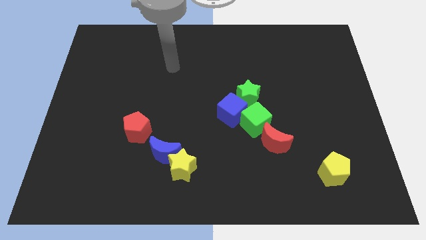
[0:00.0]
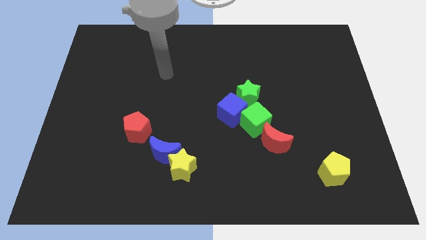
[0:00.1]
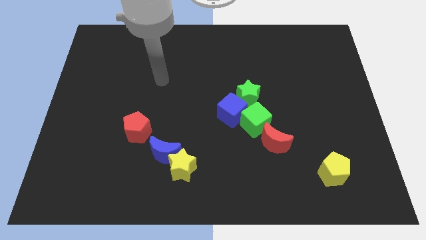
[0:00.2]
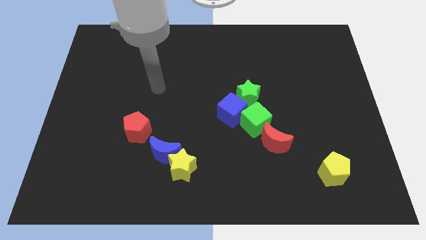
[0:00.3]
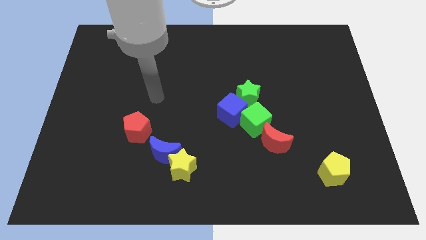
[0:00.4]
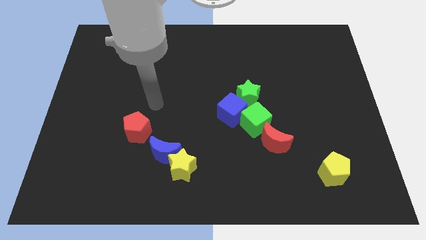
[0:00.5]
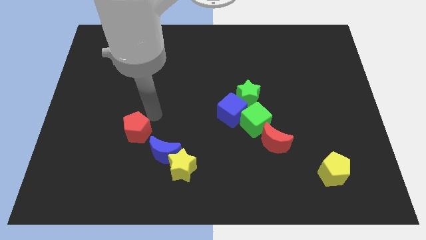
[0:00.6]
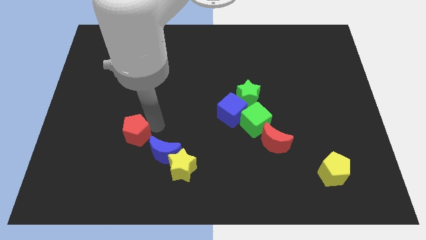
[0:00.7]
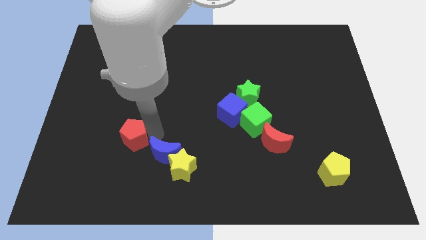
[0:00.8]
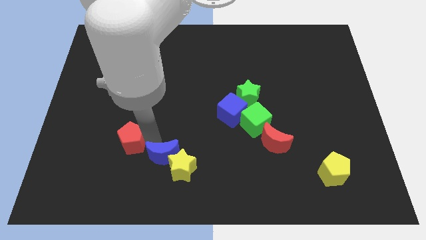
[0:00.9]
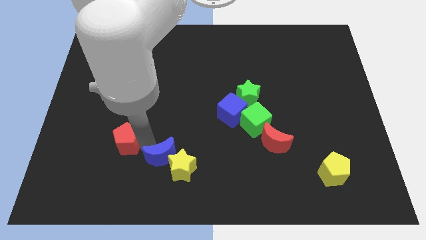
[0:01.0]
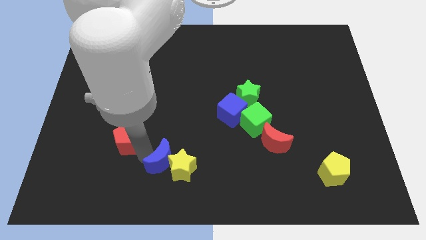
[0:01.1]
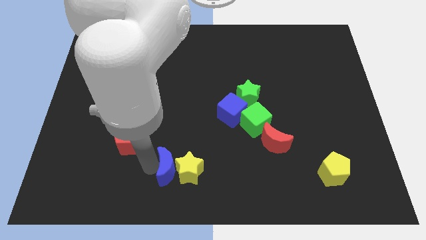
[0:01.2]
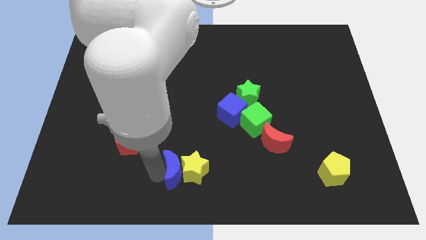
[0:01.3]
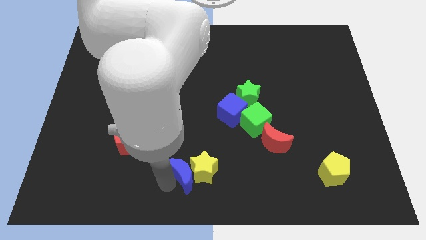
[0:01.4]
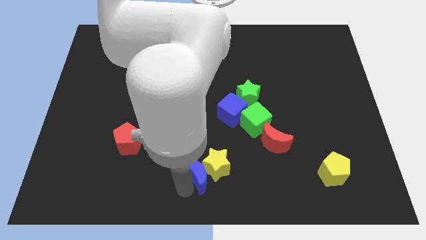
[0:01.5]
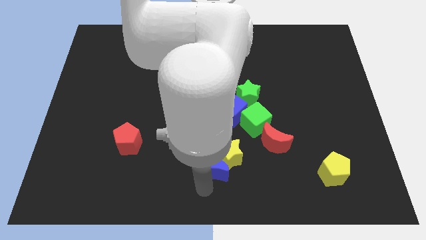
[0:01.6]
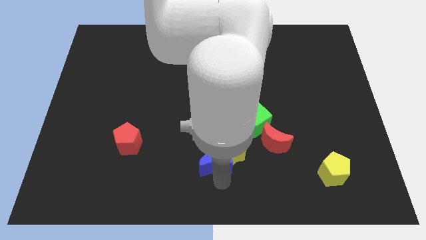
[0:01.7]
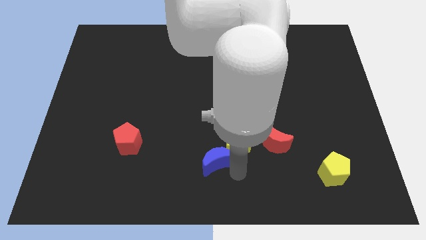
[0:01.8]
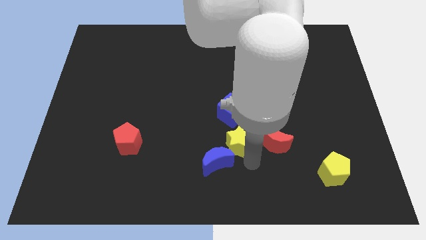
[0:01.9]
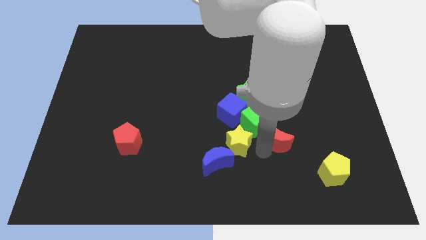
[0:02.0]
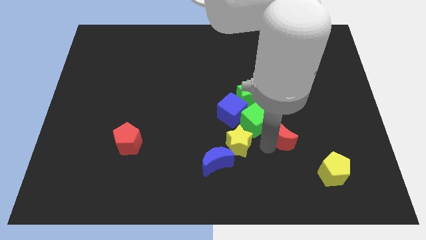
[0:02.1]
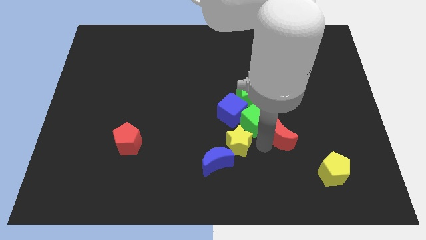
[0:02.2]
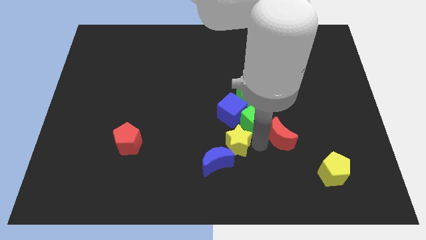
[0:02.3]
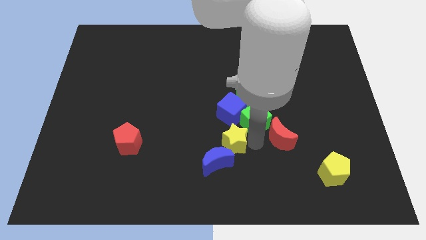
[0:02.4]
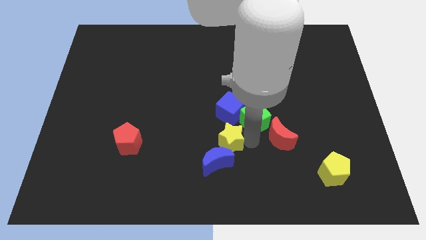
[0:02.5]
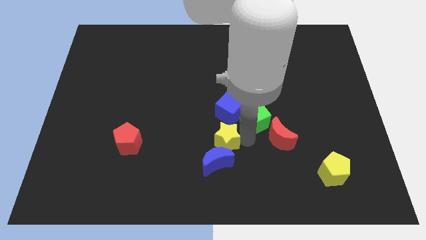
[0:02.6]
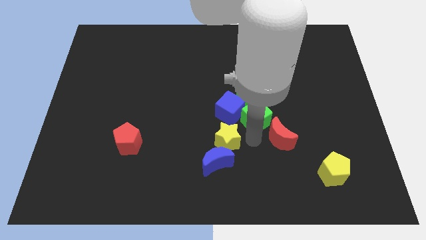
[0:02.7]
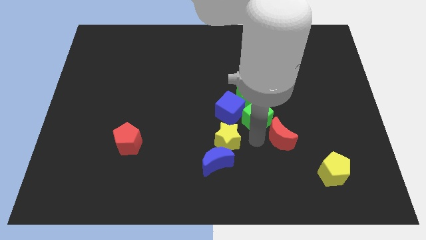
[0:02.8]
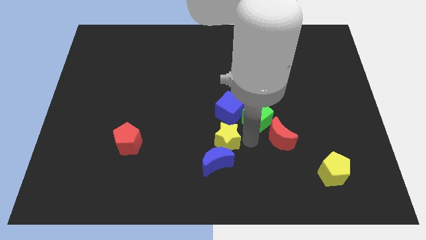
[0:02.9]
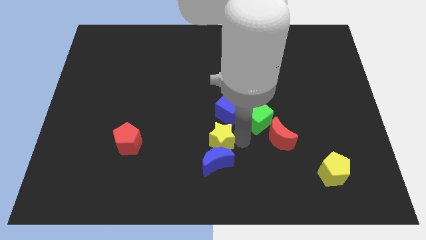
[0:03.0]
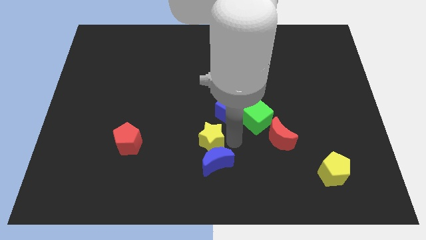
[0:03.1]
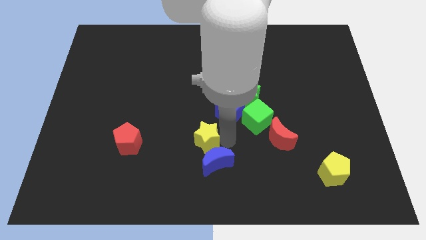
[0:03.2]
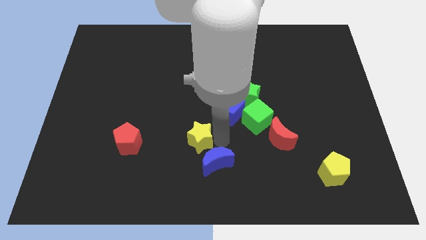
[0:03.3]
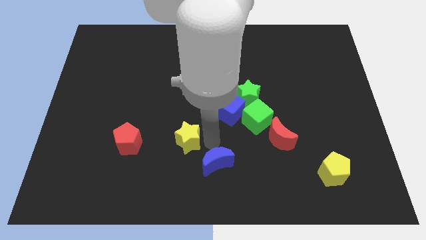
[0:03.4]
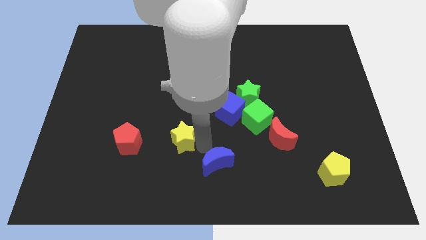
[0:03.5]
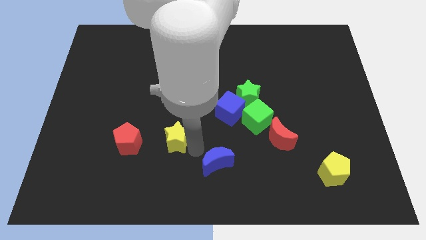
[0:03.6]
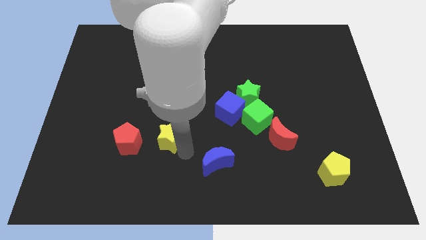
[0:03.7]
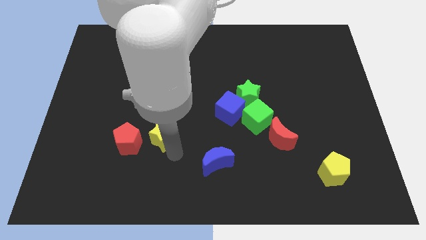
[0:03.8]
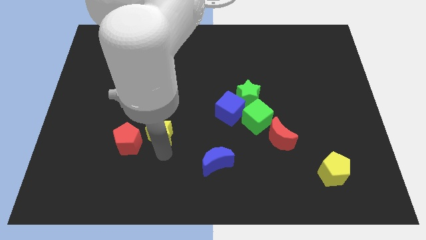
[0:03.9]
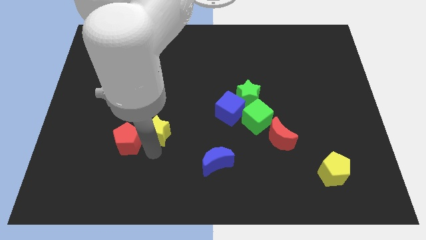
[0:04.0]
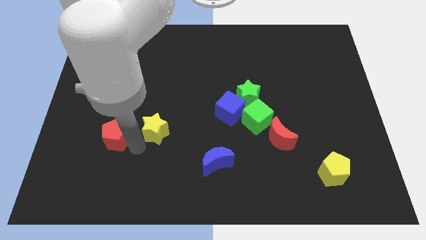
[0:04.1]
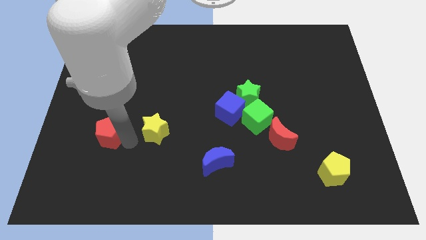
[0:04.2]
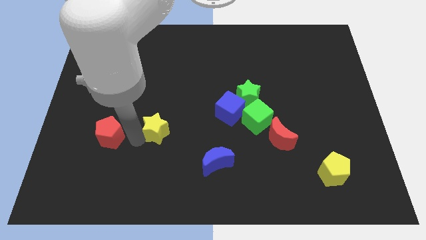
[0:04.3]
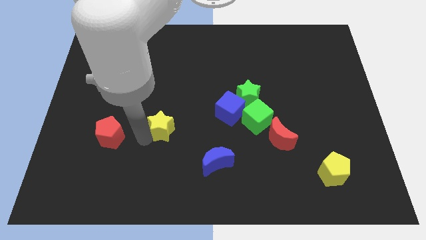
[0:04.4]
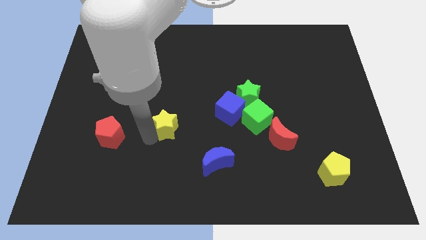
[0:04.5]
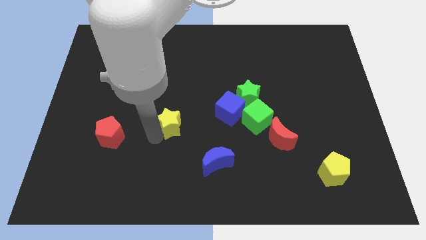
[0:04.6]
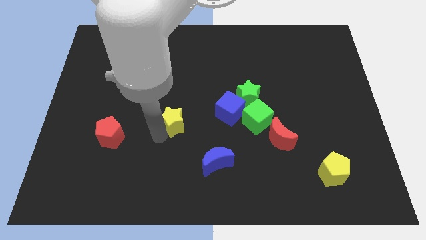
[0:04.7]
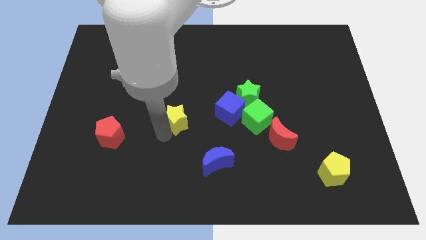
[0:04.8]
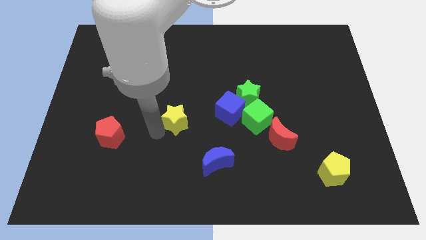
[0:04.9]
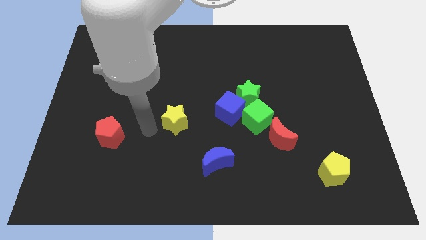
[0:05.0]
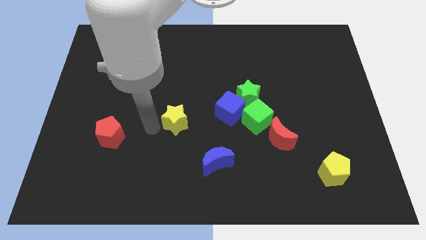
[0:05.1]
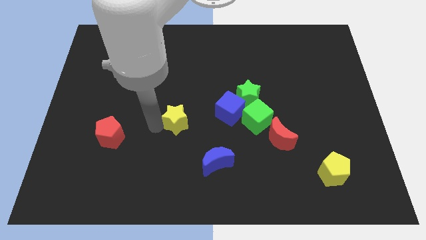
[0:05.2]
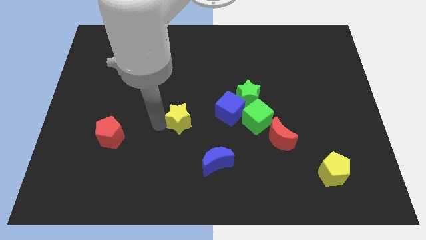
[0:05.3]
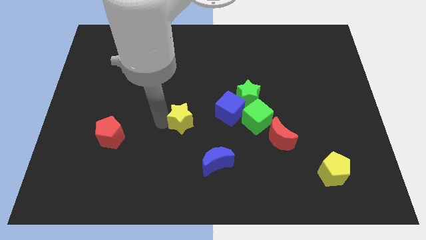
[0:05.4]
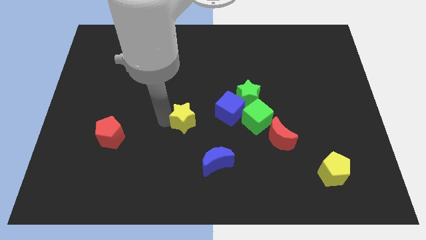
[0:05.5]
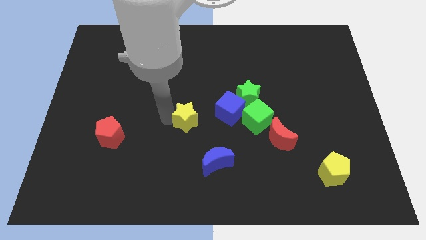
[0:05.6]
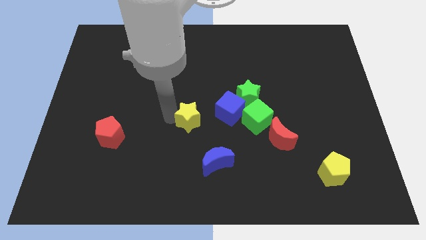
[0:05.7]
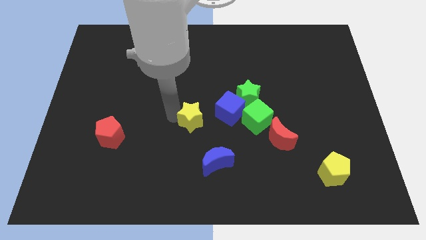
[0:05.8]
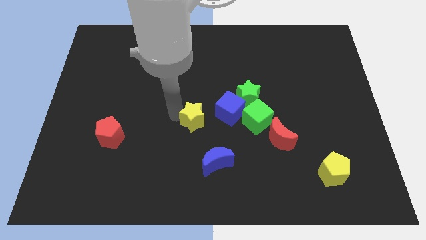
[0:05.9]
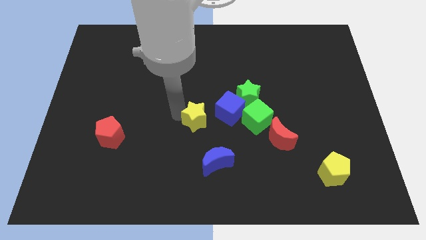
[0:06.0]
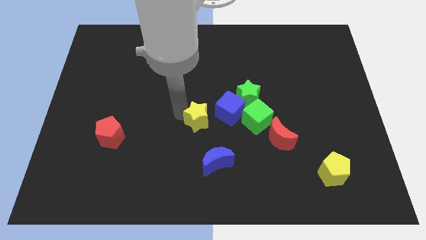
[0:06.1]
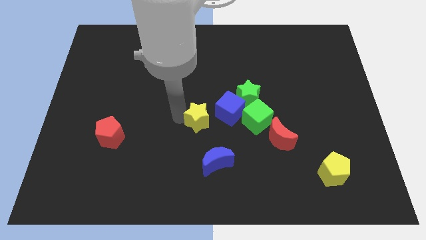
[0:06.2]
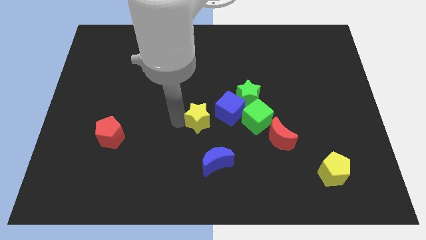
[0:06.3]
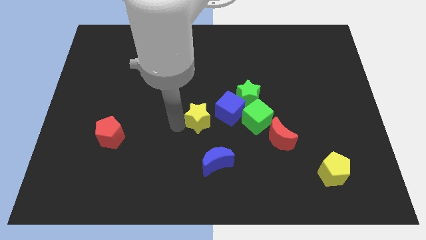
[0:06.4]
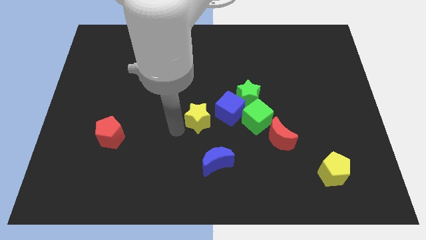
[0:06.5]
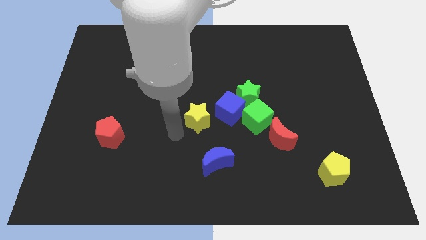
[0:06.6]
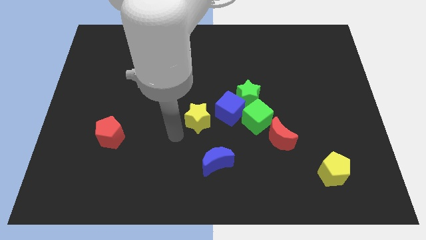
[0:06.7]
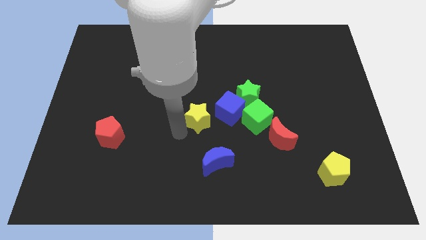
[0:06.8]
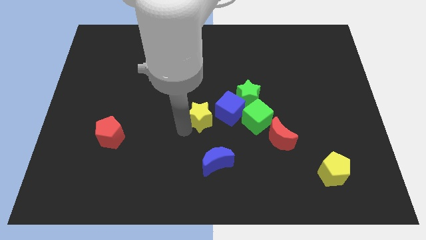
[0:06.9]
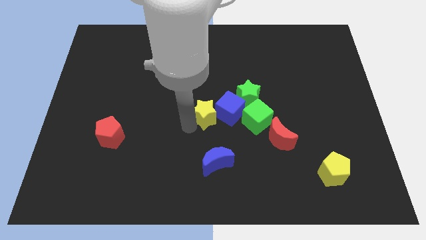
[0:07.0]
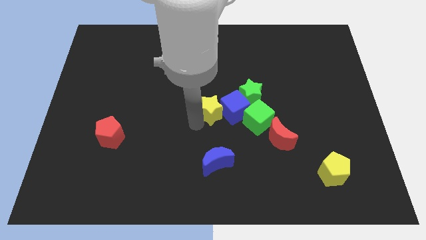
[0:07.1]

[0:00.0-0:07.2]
slide the yellow star to the top left side of the blue cube

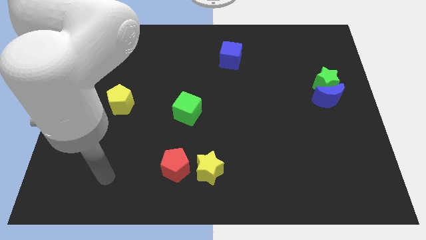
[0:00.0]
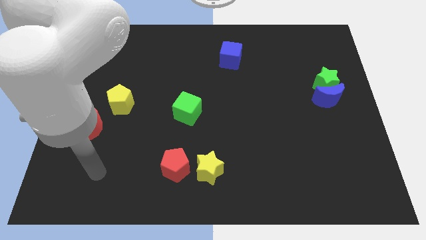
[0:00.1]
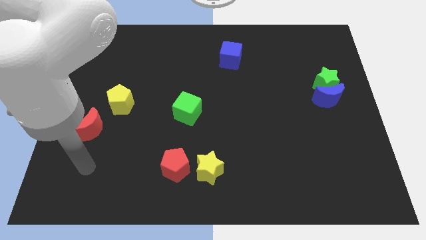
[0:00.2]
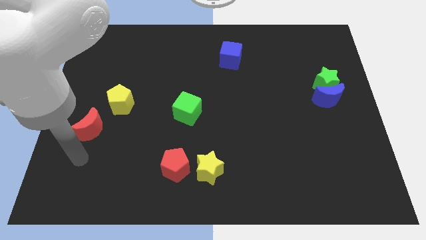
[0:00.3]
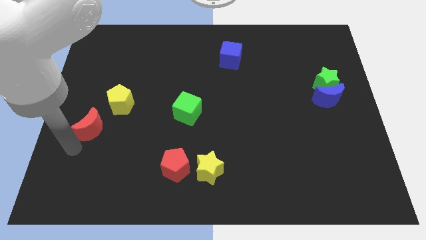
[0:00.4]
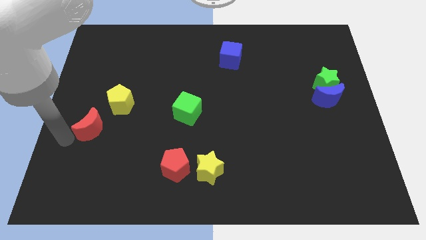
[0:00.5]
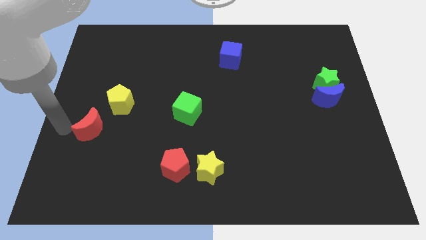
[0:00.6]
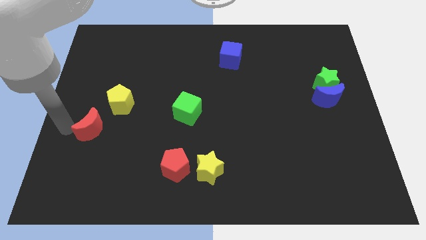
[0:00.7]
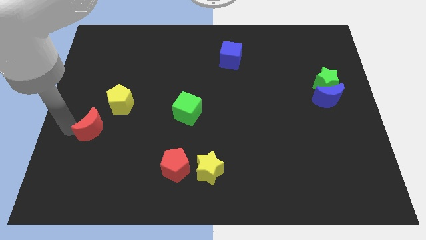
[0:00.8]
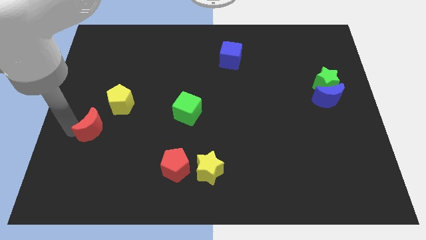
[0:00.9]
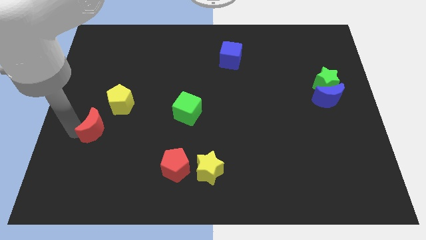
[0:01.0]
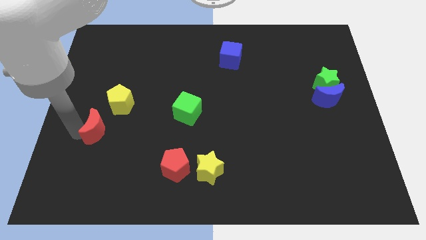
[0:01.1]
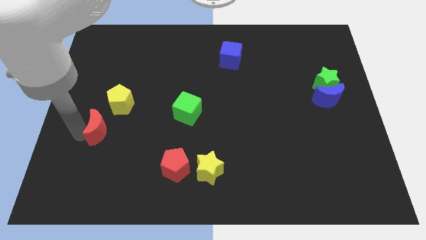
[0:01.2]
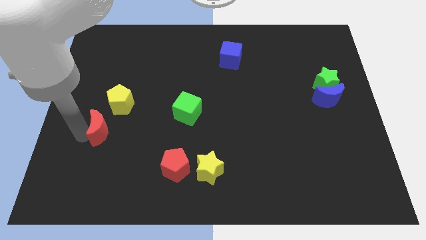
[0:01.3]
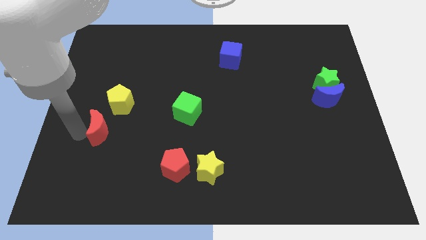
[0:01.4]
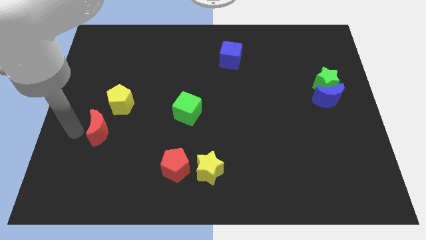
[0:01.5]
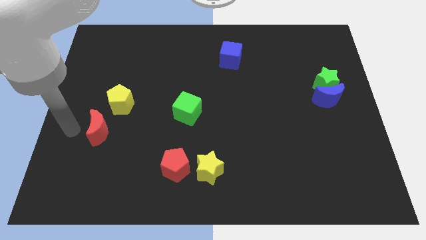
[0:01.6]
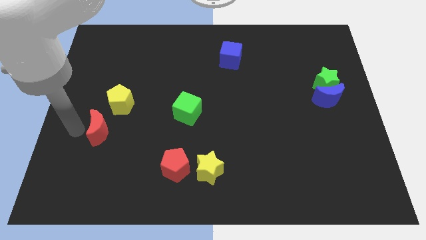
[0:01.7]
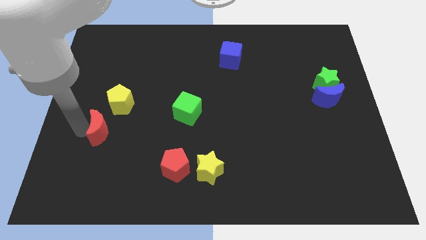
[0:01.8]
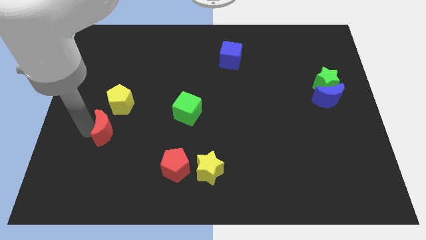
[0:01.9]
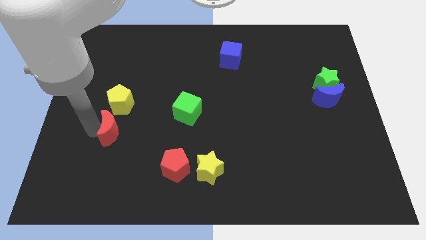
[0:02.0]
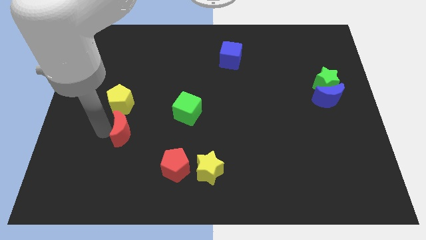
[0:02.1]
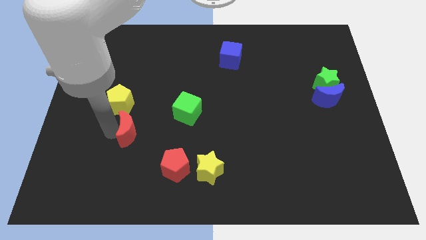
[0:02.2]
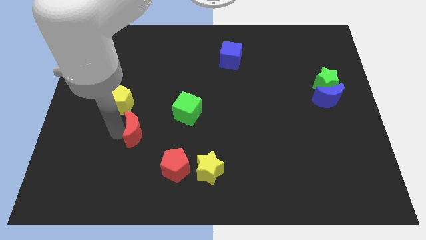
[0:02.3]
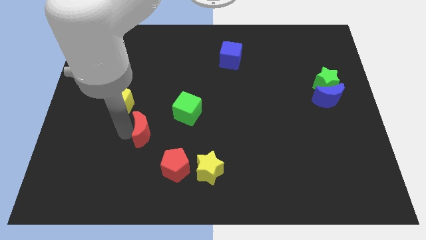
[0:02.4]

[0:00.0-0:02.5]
slide the red moon to the bottom left side of the green cube
